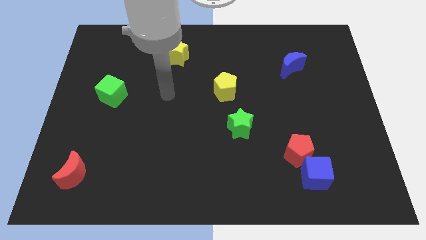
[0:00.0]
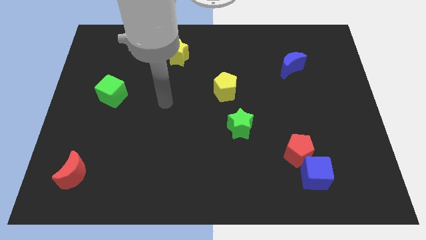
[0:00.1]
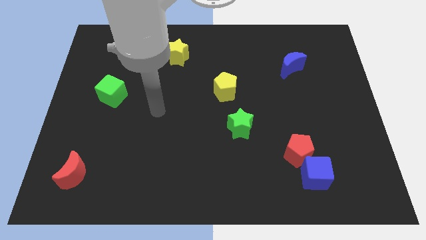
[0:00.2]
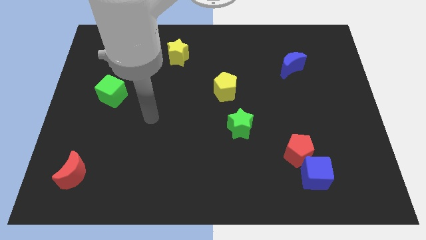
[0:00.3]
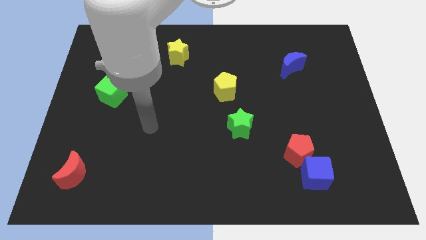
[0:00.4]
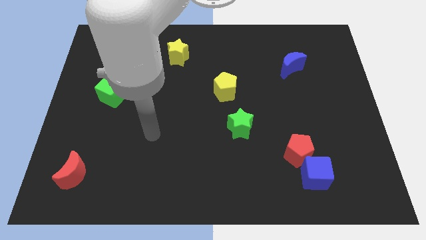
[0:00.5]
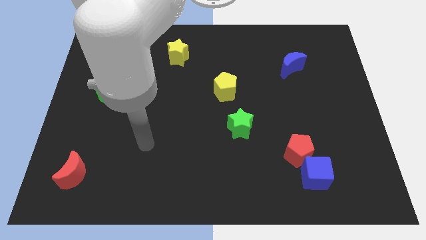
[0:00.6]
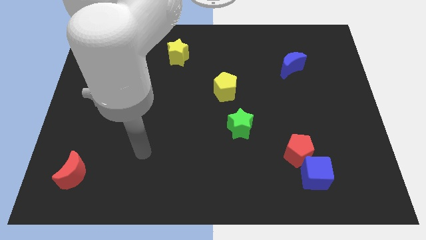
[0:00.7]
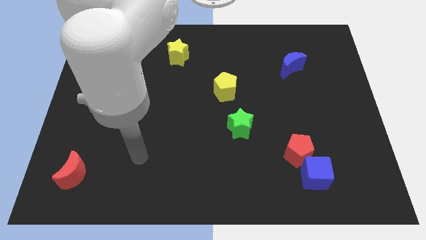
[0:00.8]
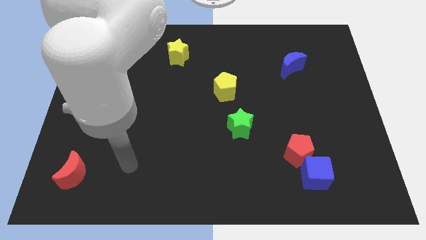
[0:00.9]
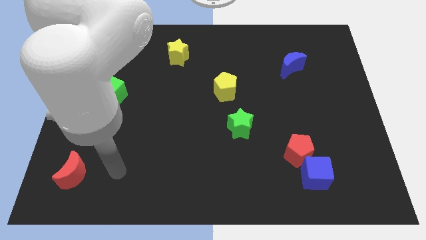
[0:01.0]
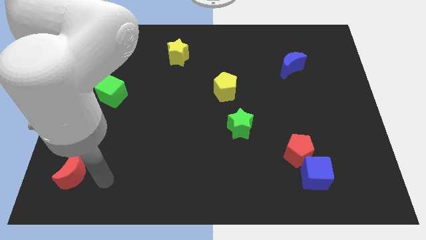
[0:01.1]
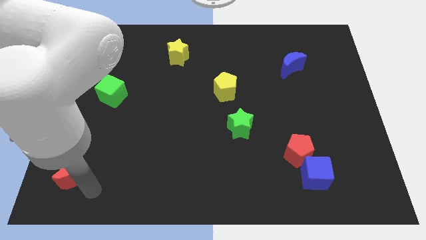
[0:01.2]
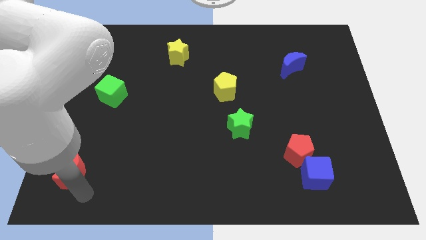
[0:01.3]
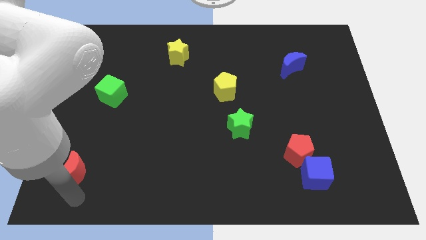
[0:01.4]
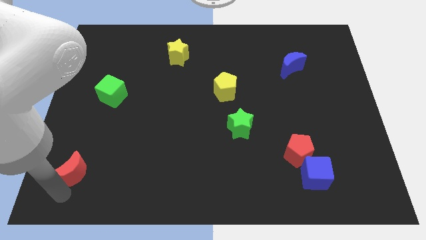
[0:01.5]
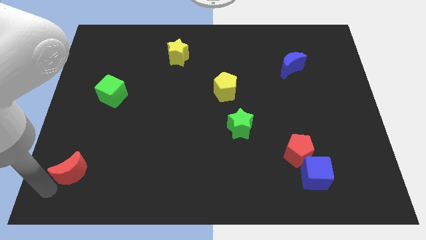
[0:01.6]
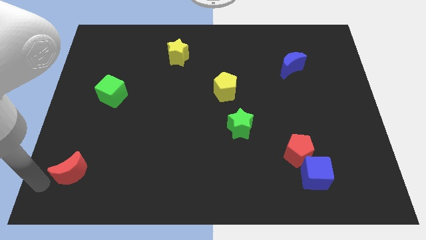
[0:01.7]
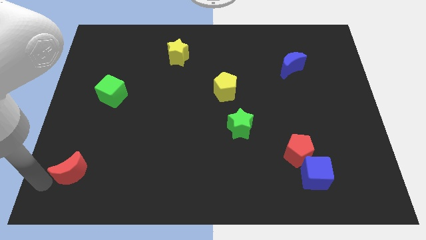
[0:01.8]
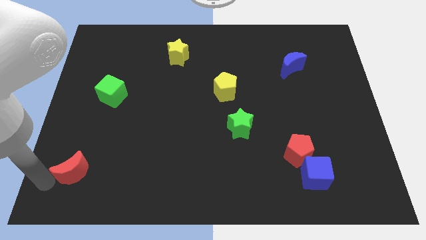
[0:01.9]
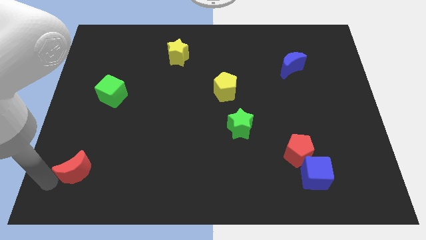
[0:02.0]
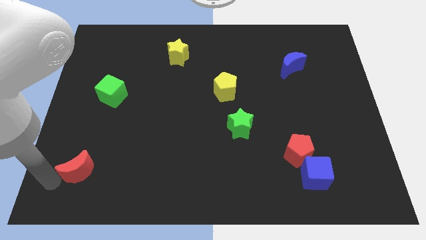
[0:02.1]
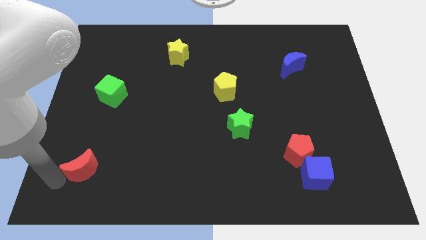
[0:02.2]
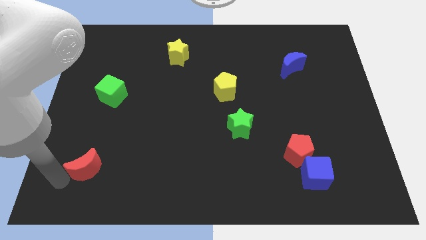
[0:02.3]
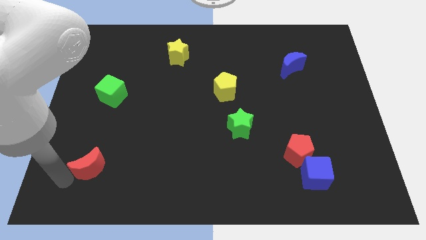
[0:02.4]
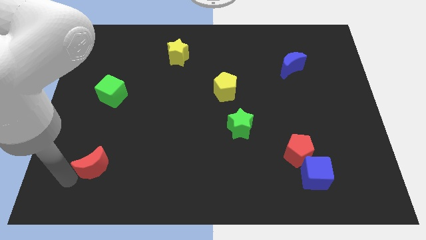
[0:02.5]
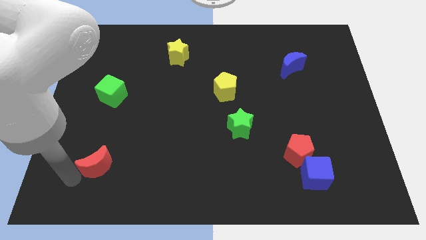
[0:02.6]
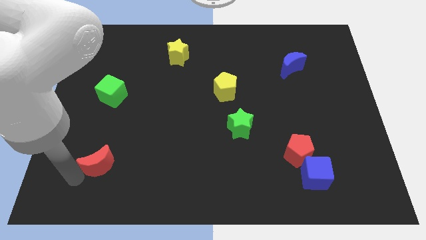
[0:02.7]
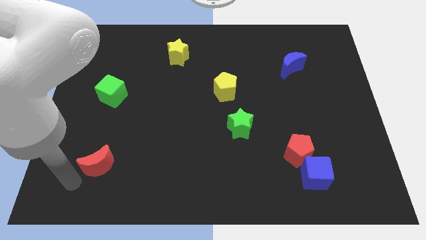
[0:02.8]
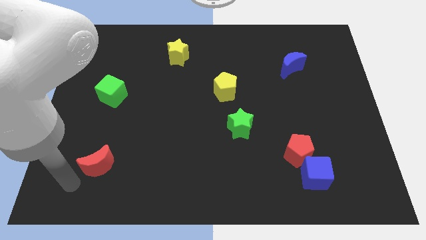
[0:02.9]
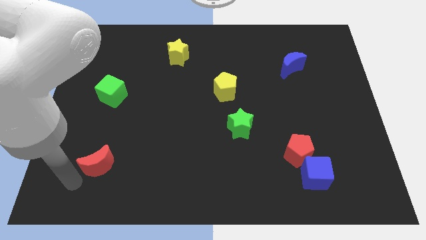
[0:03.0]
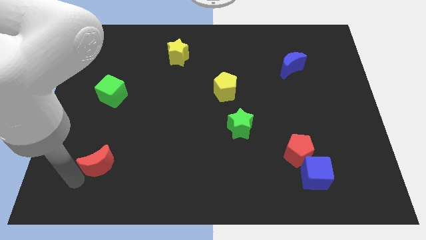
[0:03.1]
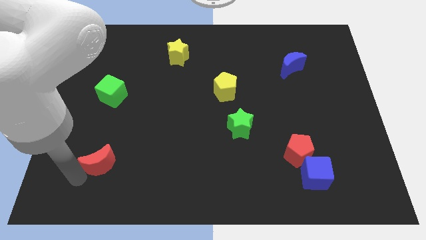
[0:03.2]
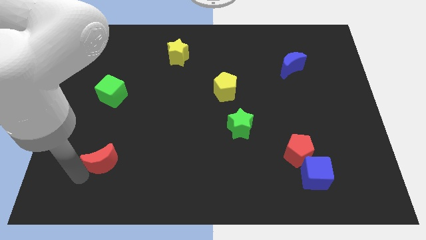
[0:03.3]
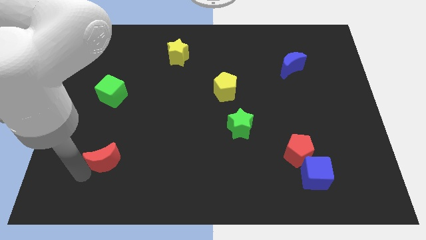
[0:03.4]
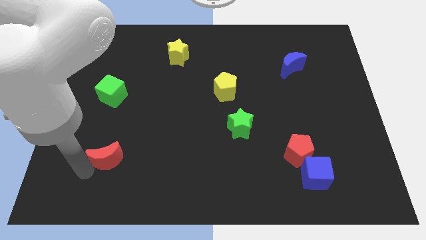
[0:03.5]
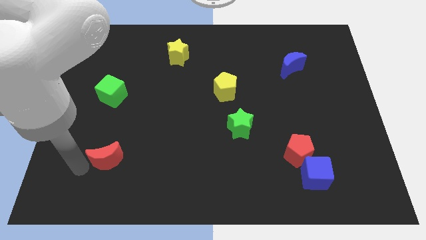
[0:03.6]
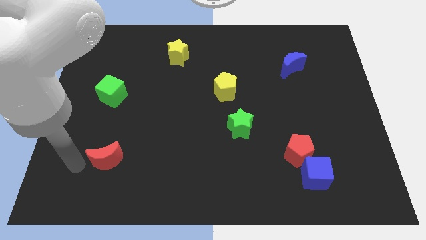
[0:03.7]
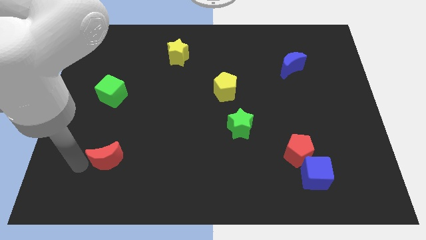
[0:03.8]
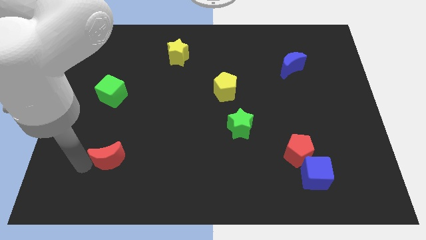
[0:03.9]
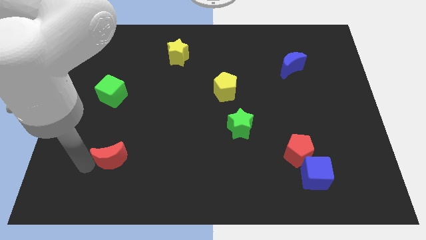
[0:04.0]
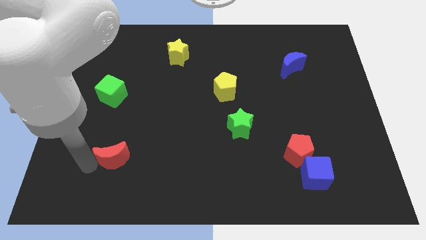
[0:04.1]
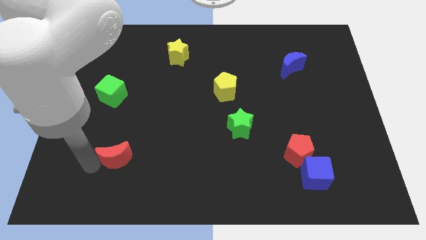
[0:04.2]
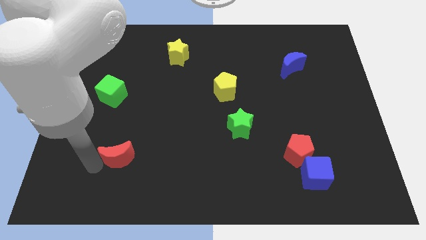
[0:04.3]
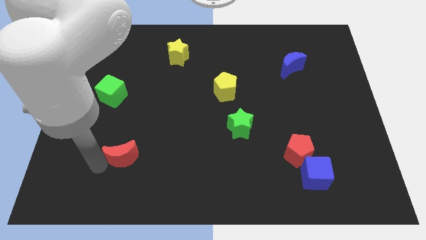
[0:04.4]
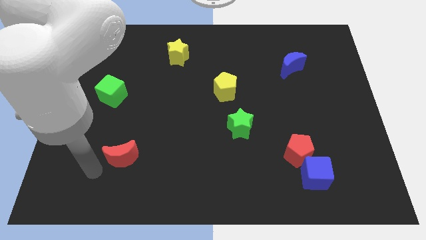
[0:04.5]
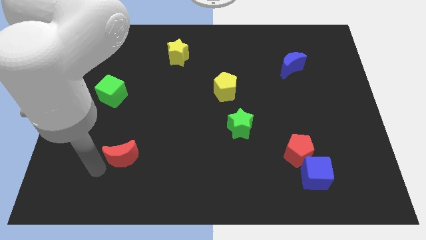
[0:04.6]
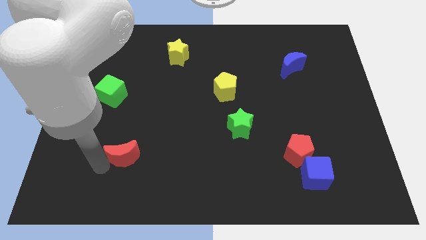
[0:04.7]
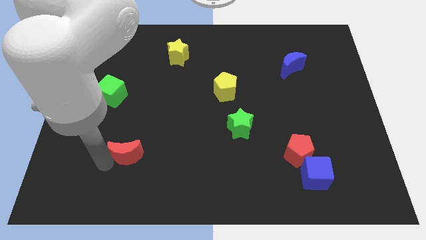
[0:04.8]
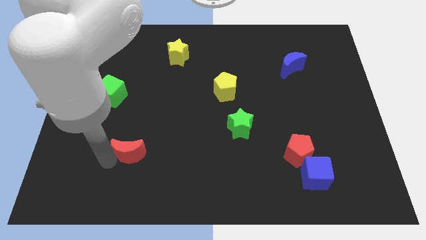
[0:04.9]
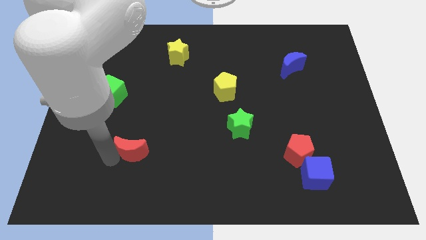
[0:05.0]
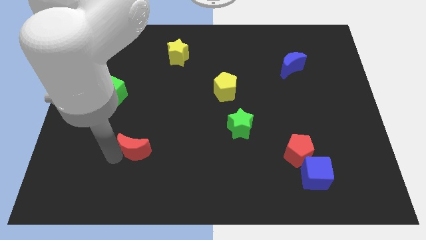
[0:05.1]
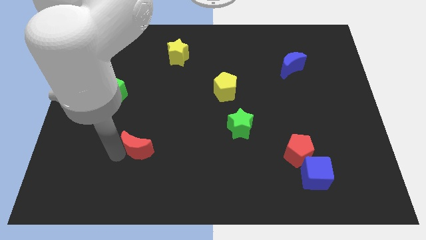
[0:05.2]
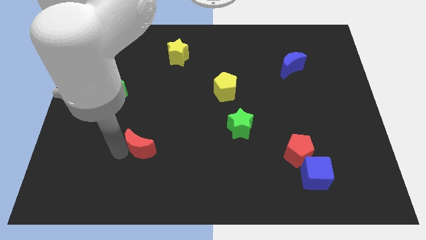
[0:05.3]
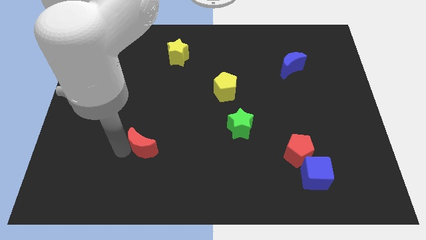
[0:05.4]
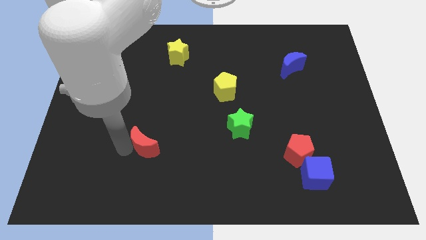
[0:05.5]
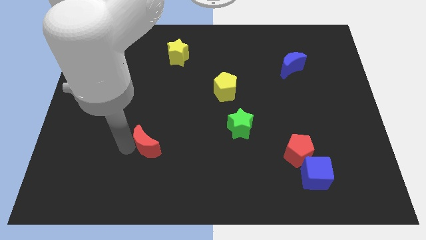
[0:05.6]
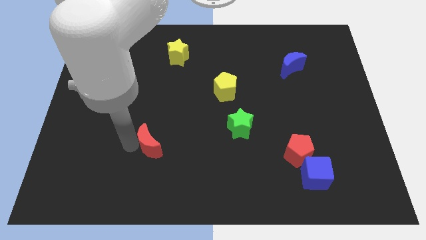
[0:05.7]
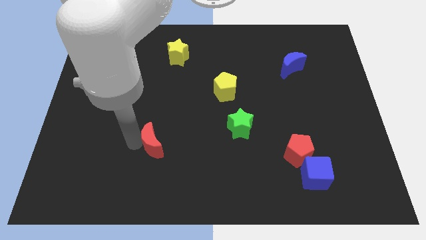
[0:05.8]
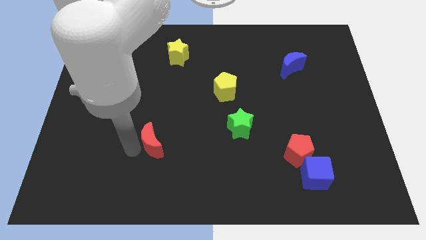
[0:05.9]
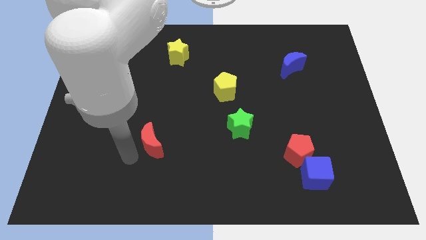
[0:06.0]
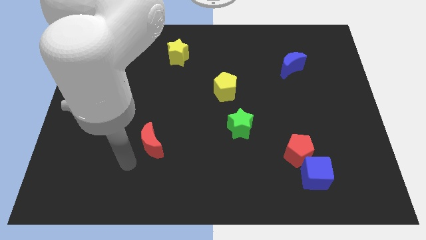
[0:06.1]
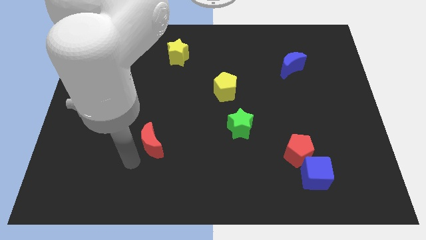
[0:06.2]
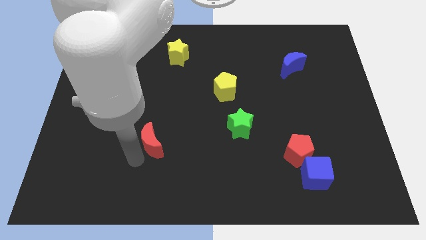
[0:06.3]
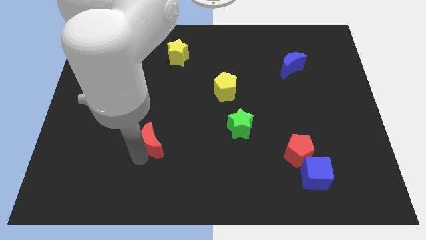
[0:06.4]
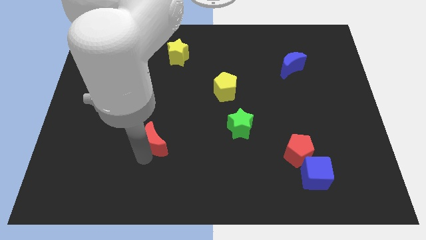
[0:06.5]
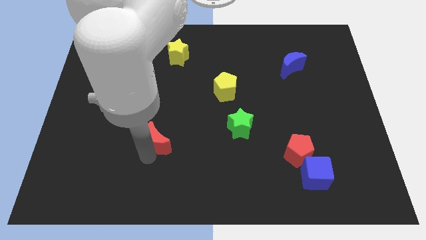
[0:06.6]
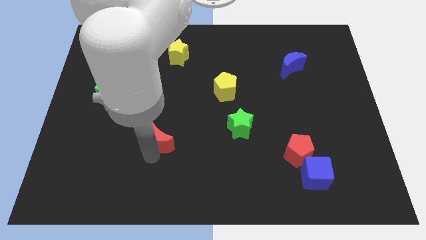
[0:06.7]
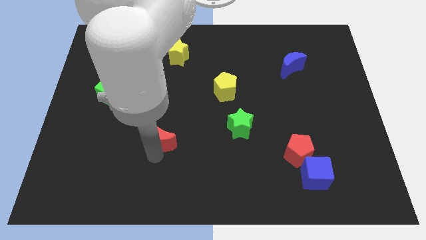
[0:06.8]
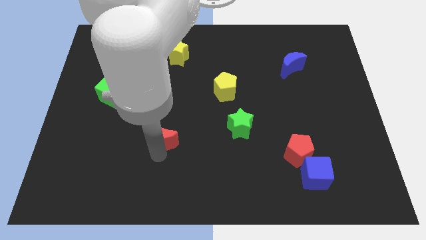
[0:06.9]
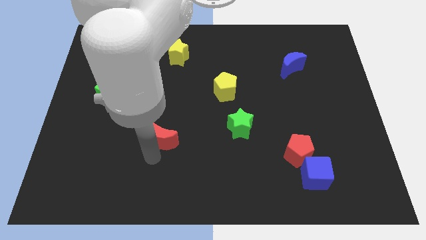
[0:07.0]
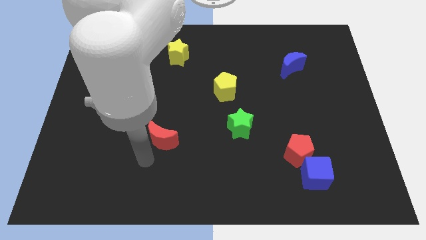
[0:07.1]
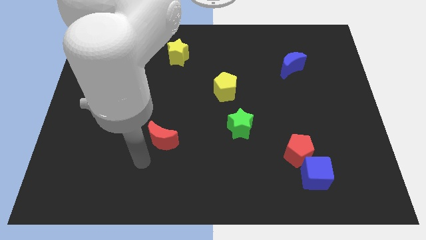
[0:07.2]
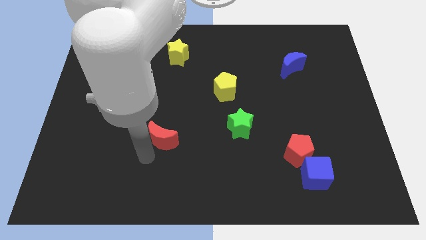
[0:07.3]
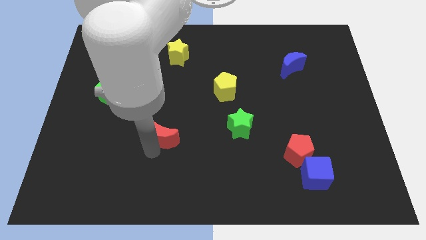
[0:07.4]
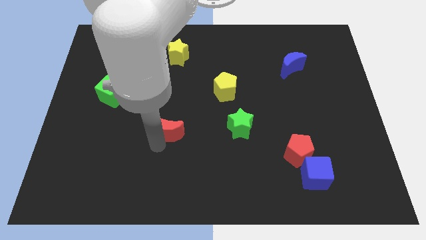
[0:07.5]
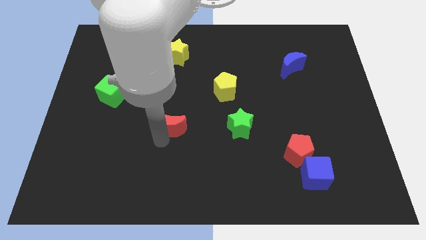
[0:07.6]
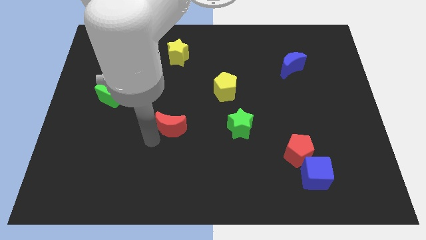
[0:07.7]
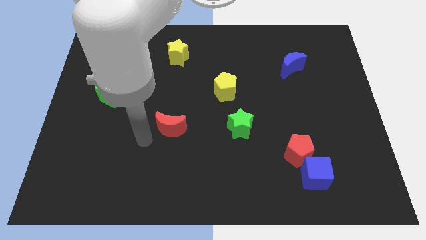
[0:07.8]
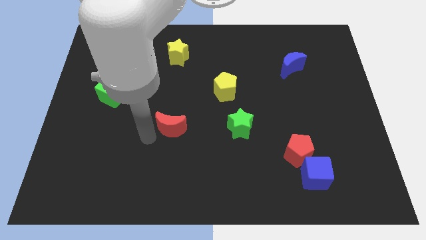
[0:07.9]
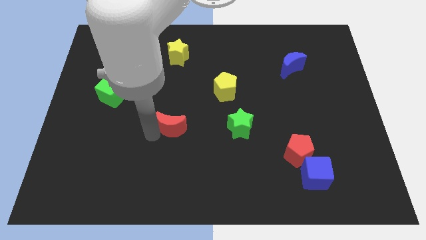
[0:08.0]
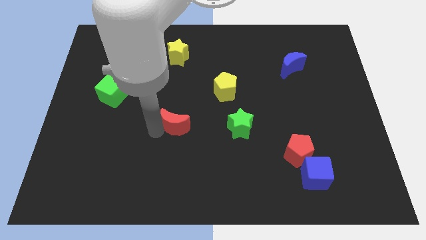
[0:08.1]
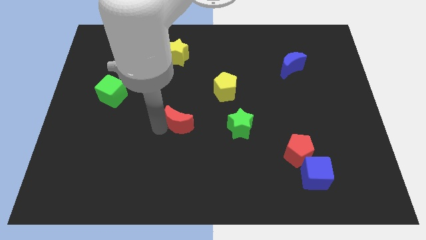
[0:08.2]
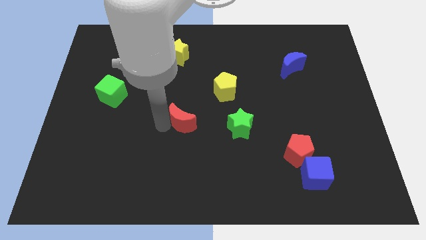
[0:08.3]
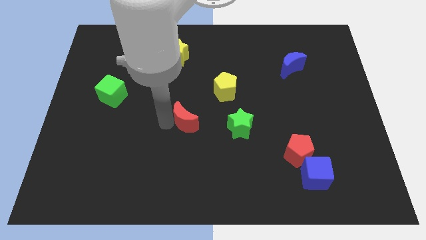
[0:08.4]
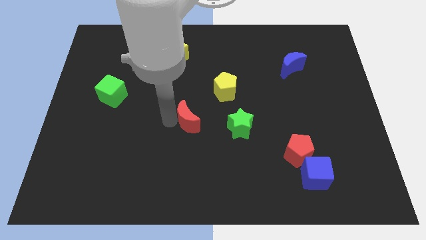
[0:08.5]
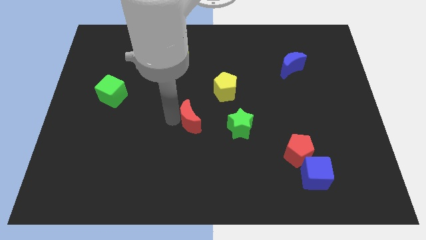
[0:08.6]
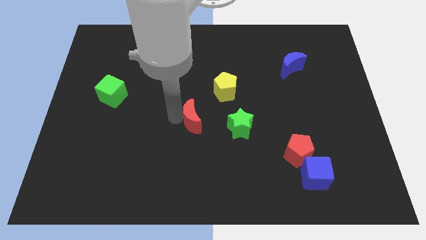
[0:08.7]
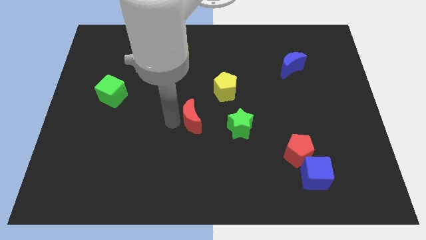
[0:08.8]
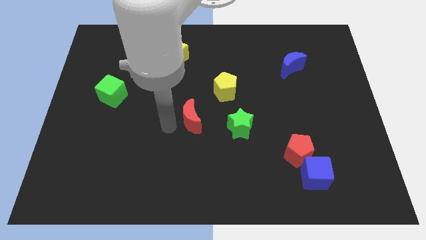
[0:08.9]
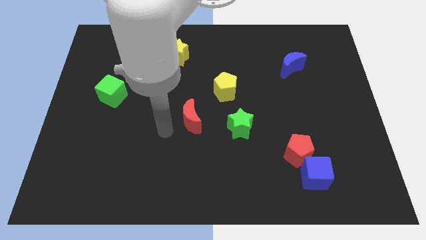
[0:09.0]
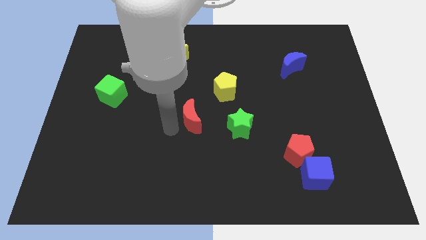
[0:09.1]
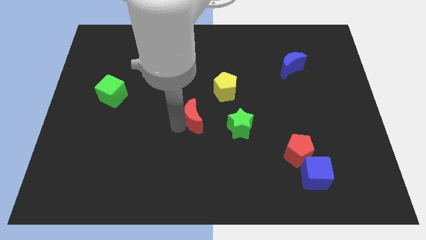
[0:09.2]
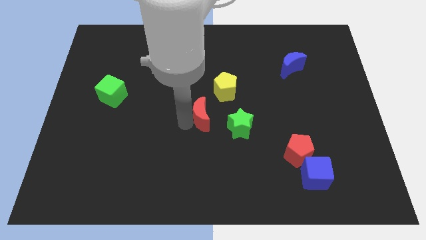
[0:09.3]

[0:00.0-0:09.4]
push the red moon to the top left side of the green star
